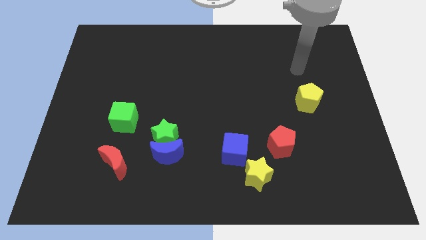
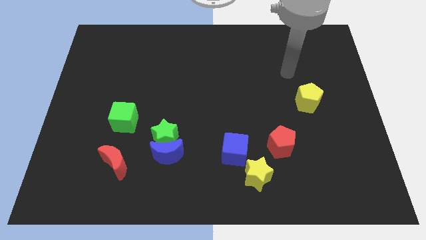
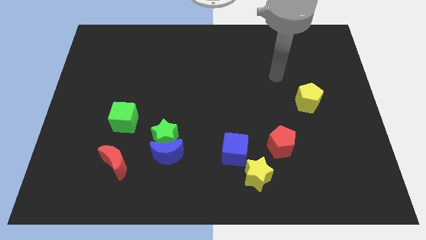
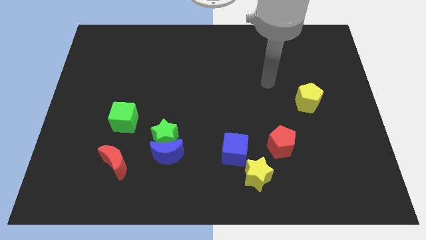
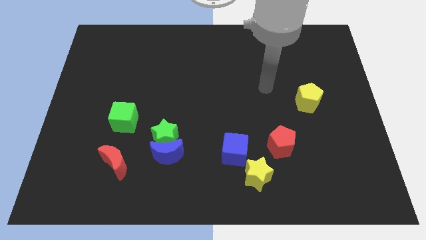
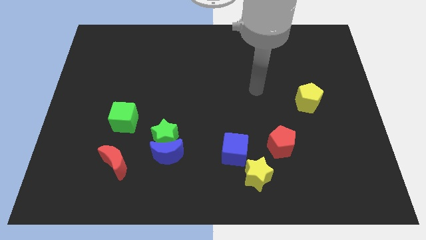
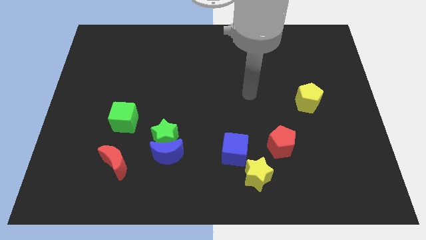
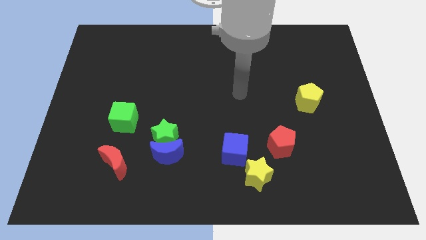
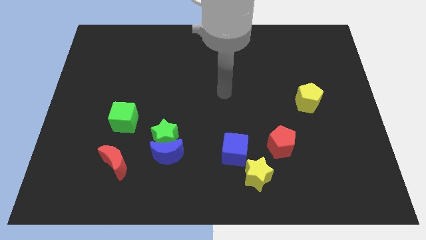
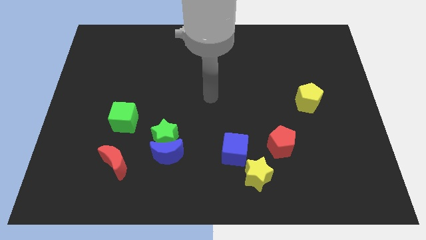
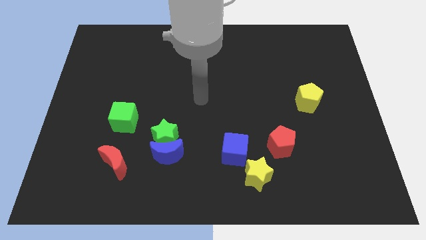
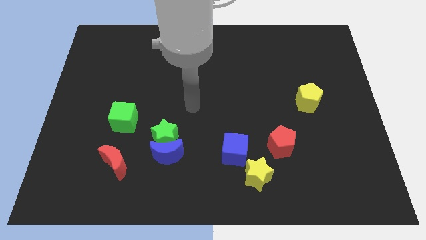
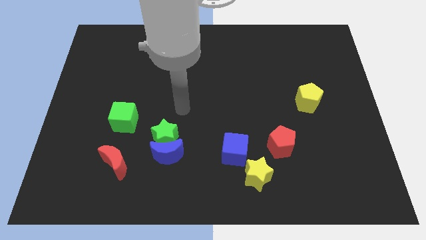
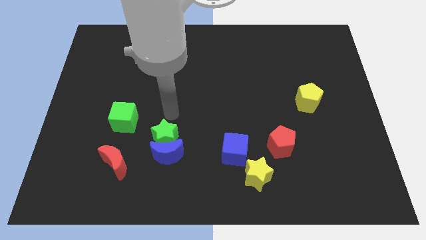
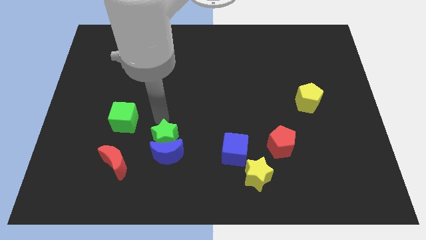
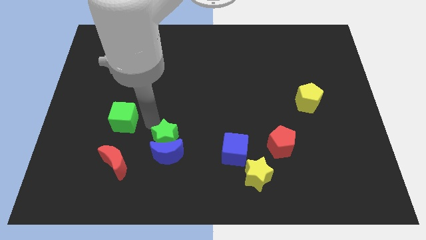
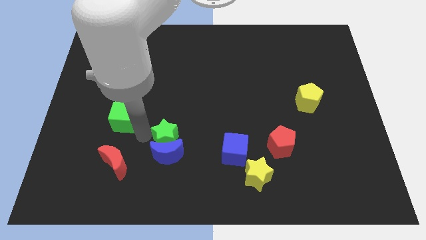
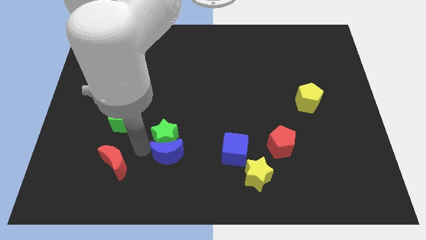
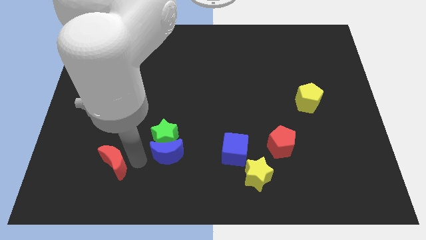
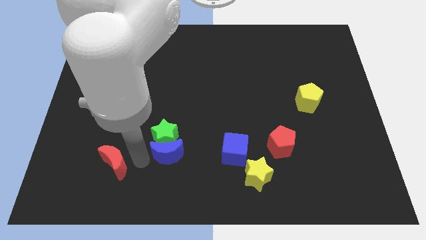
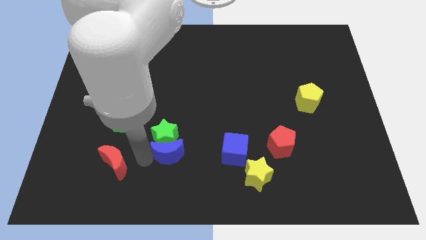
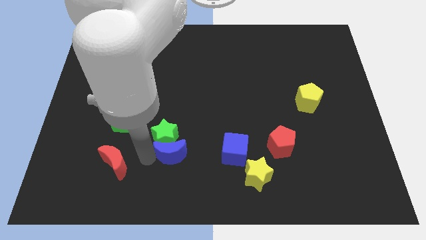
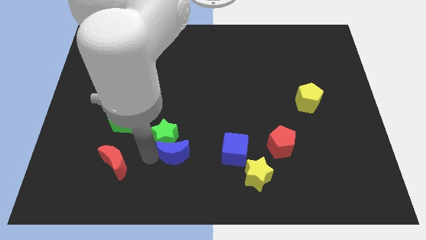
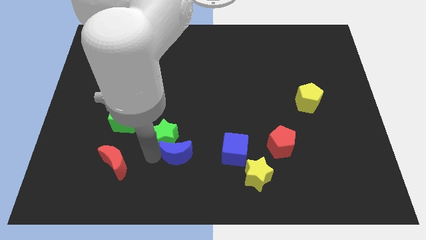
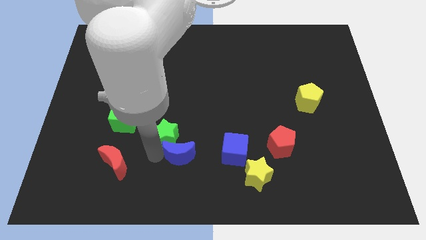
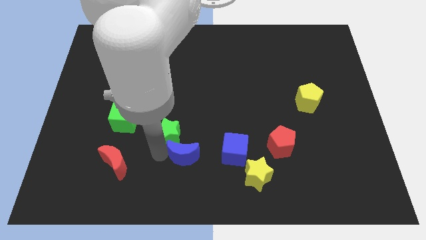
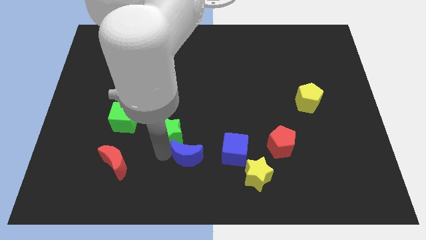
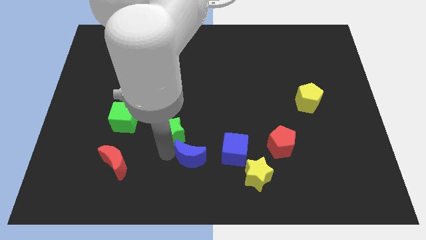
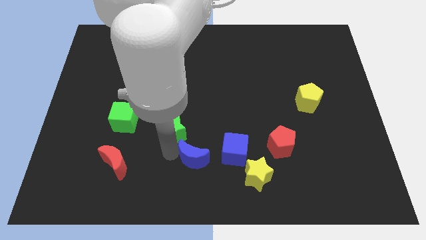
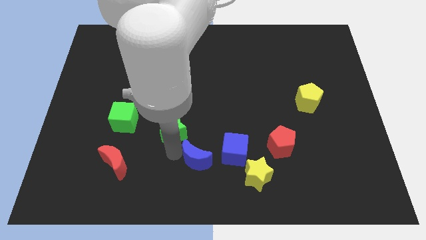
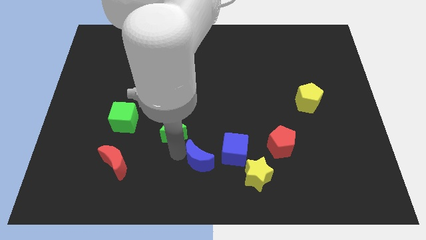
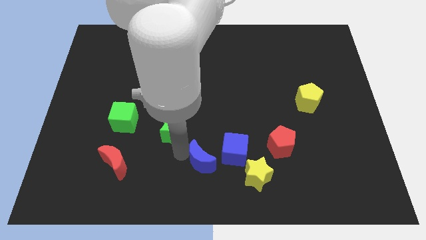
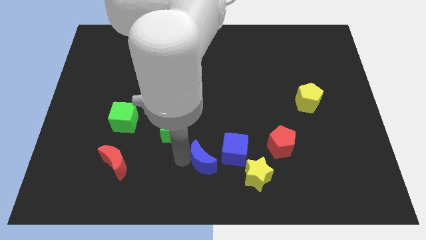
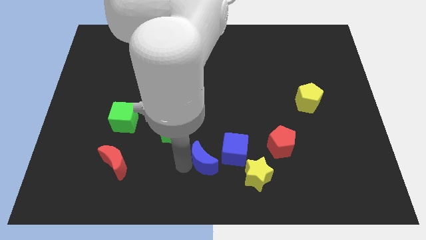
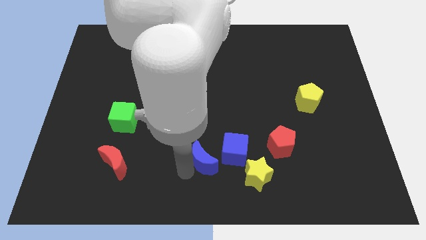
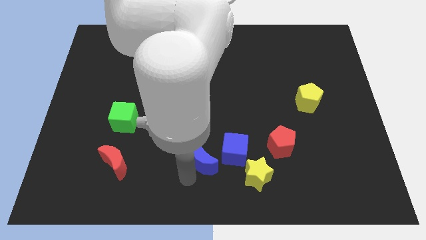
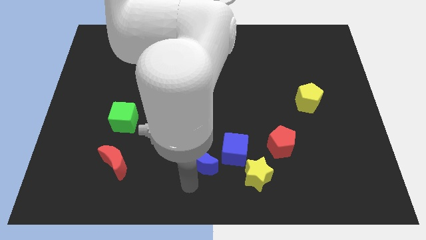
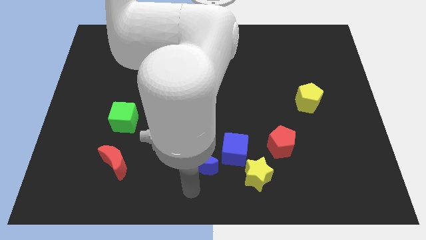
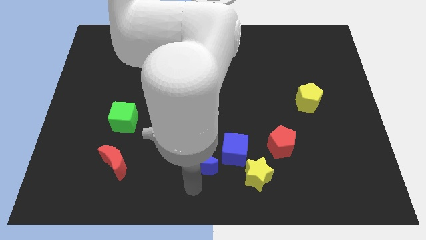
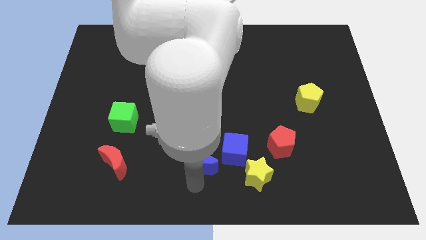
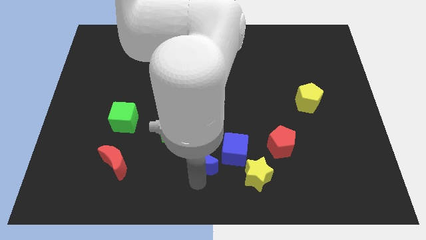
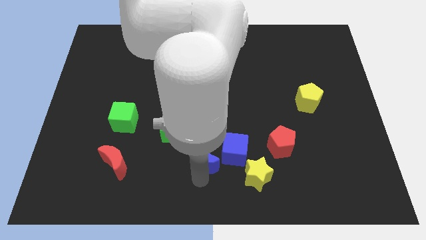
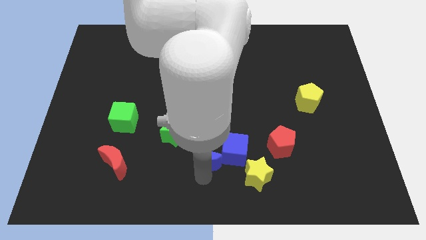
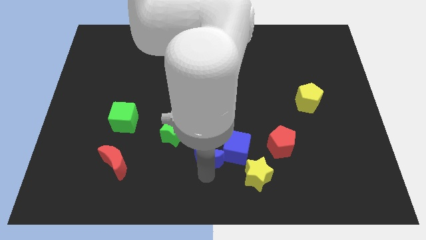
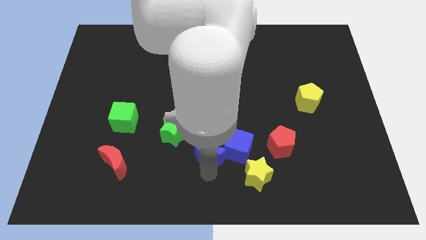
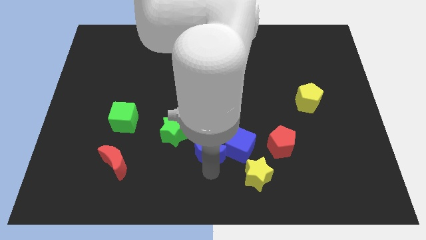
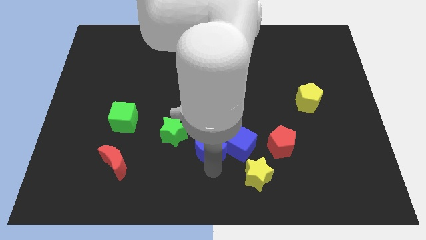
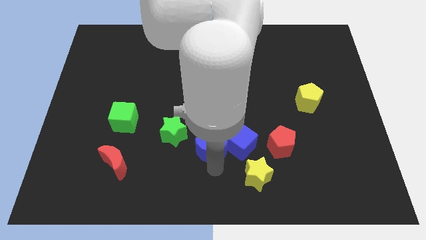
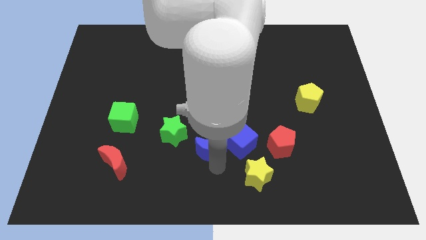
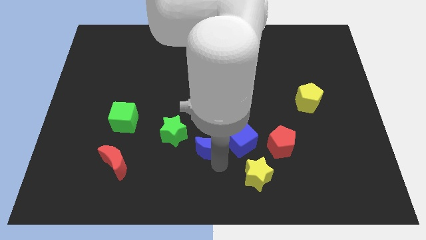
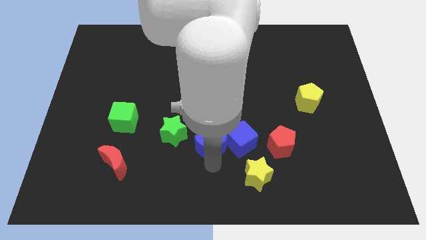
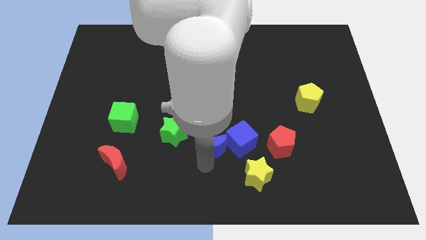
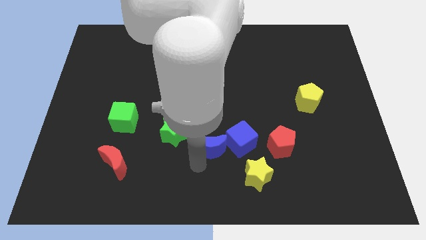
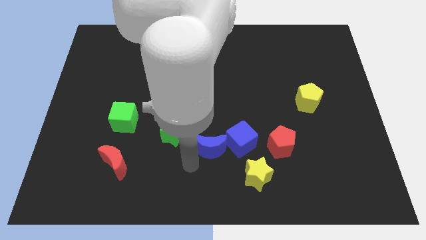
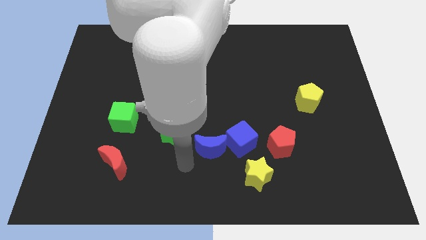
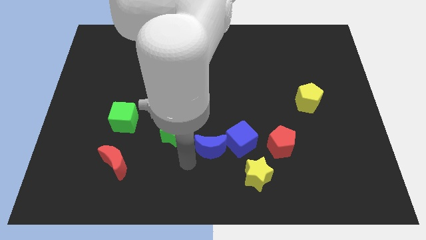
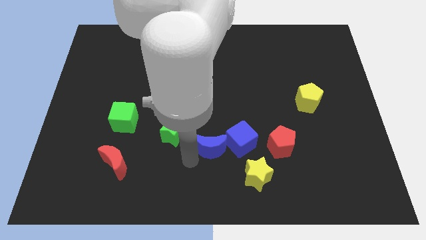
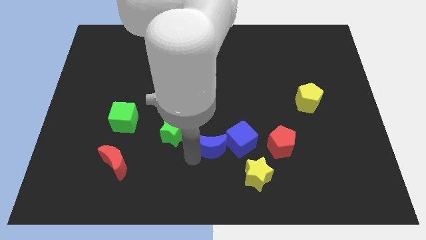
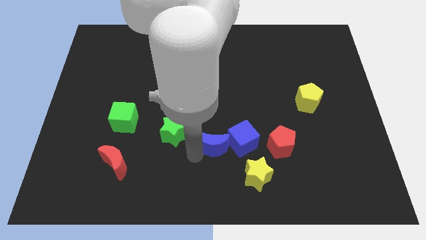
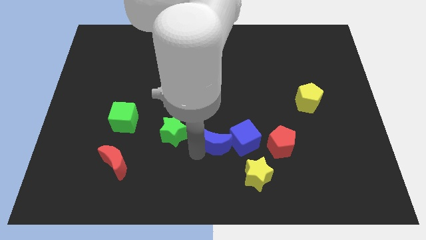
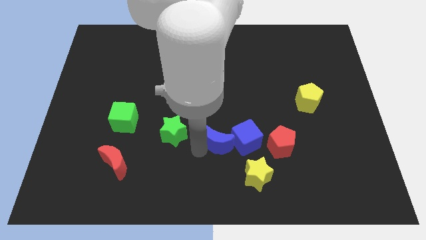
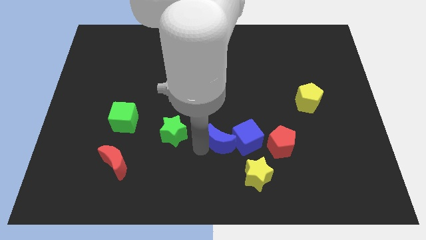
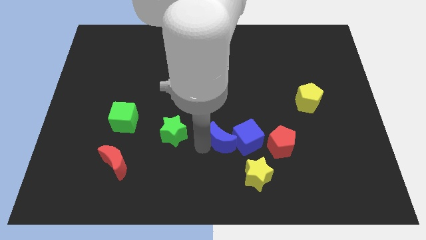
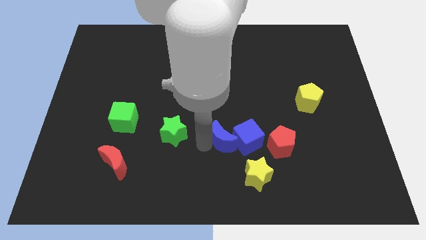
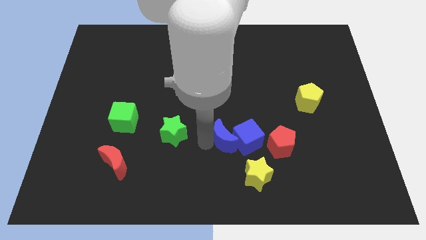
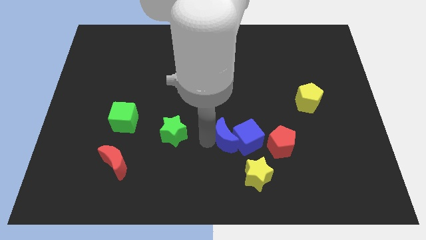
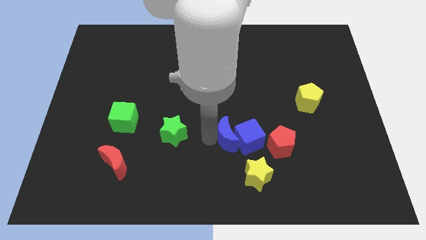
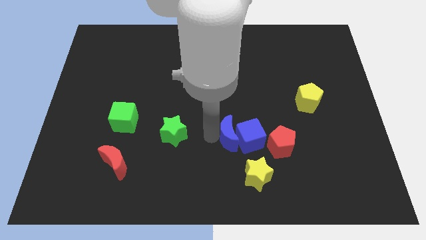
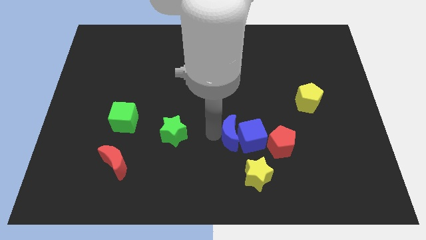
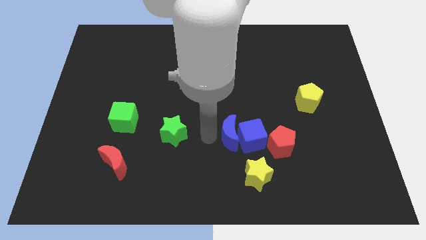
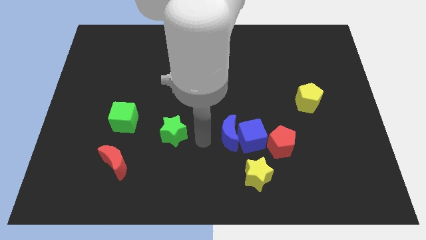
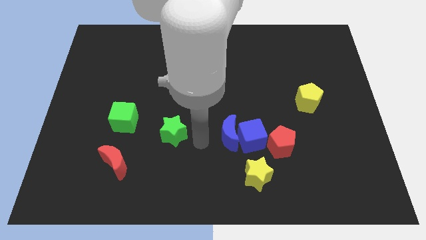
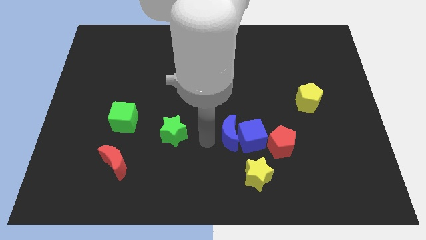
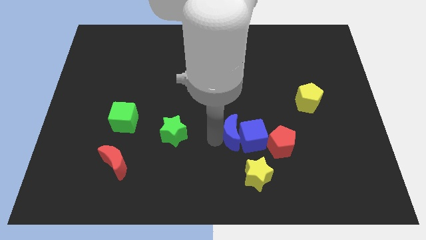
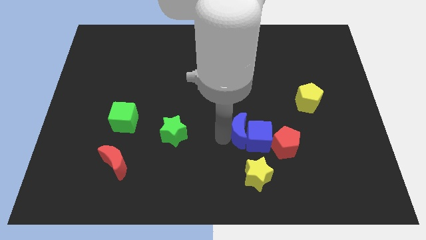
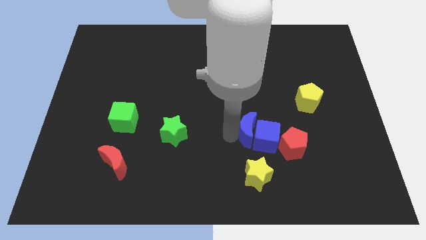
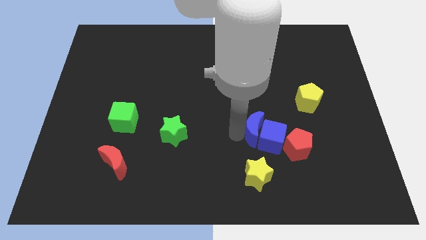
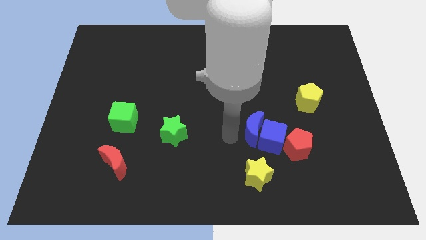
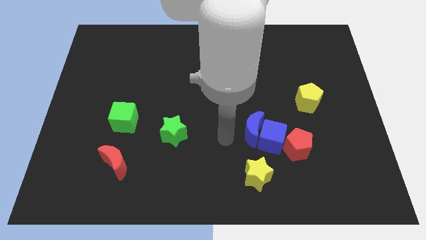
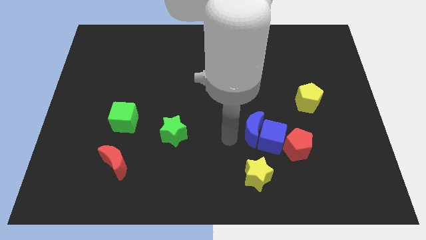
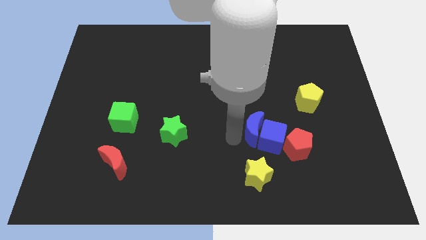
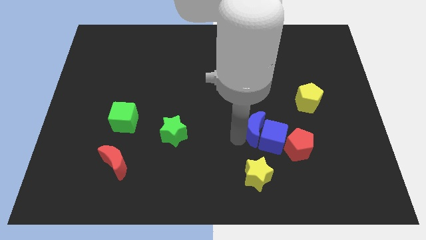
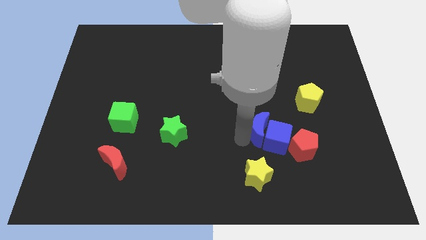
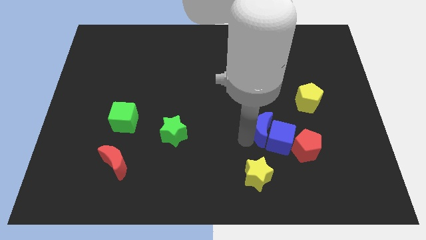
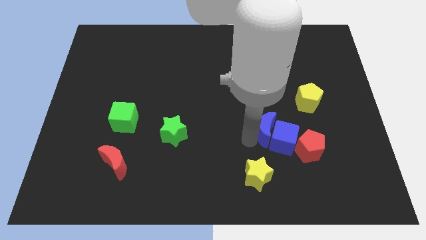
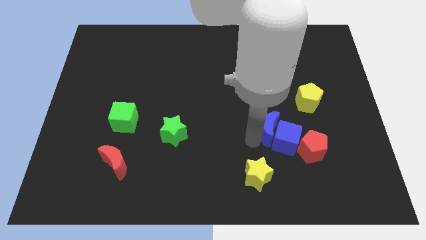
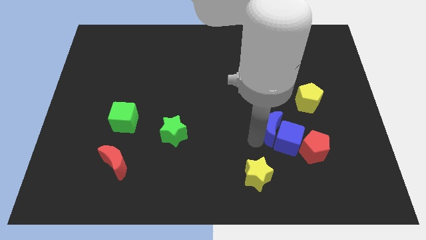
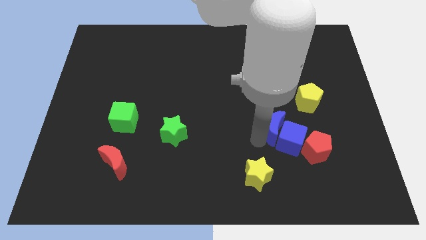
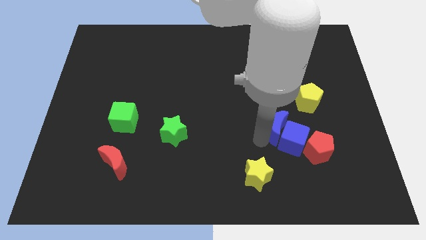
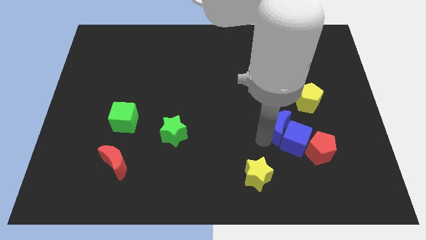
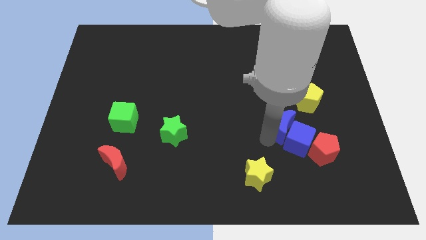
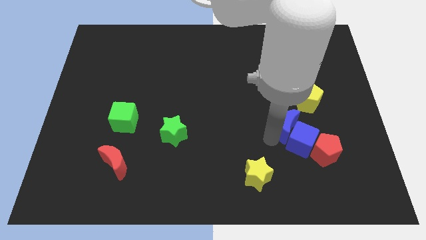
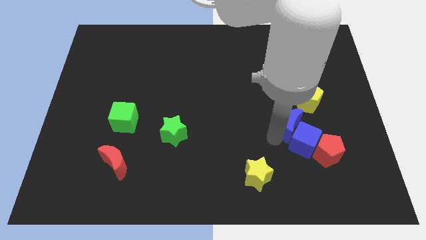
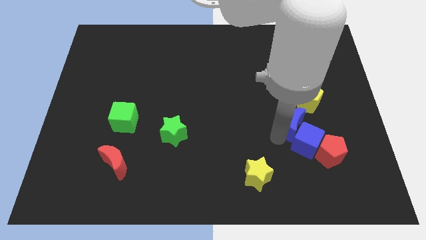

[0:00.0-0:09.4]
push the blue moon to the bottom of the yellow pentagon
